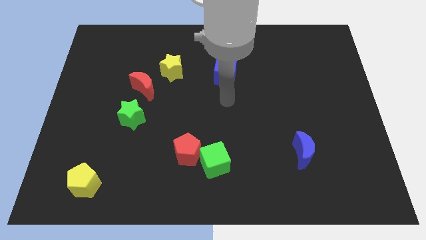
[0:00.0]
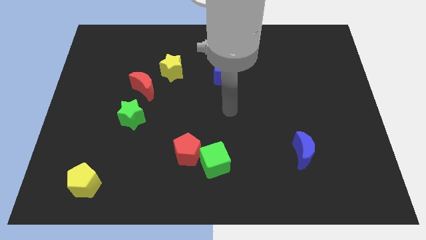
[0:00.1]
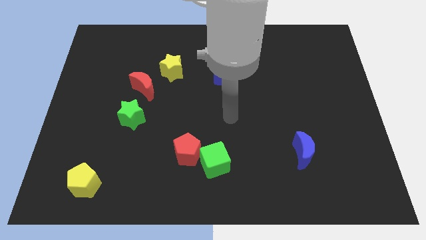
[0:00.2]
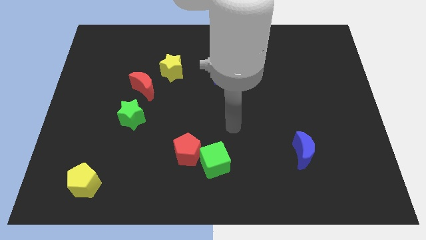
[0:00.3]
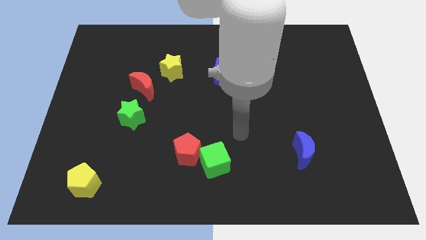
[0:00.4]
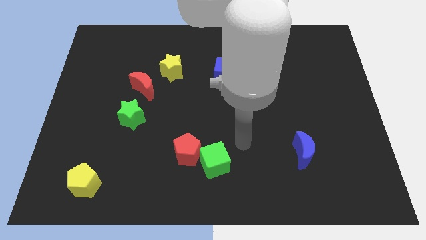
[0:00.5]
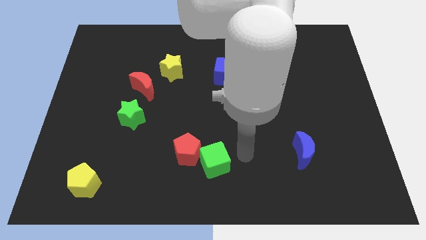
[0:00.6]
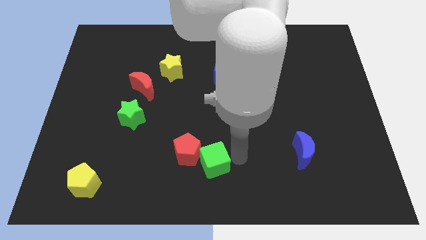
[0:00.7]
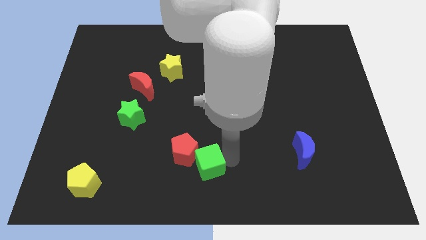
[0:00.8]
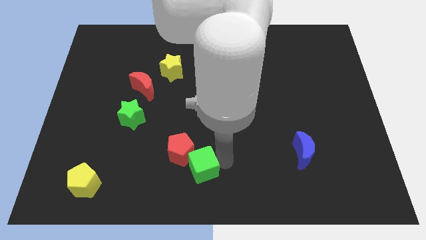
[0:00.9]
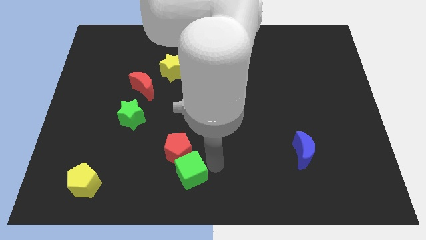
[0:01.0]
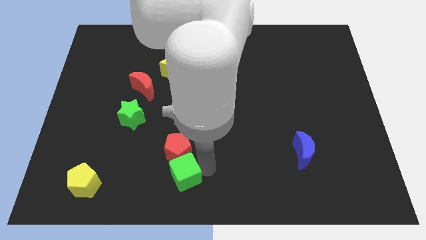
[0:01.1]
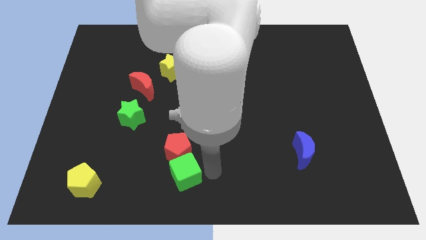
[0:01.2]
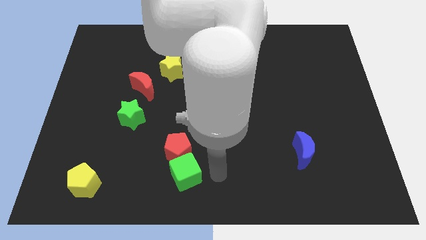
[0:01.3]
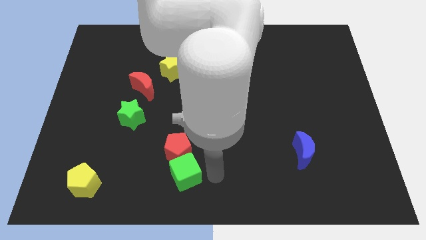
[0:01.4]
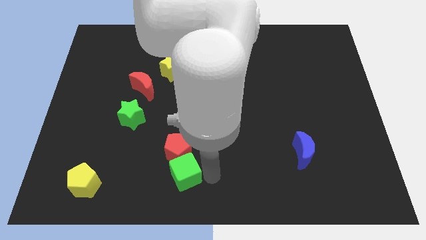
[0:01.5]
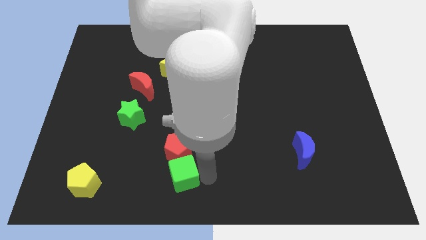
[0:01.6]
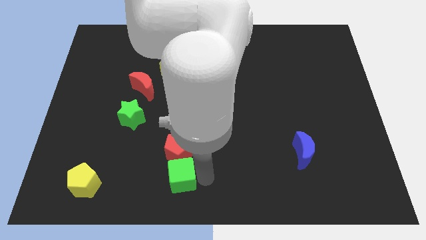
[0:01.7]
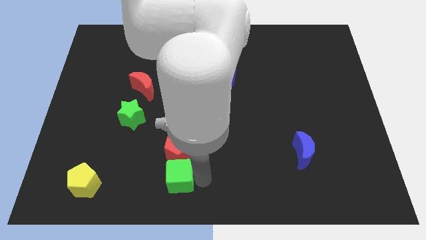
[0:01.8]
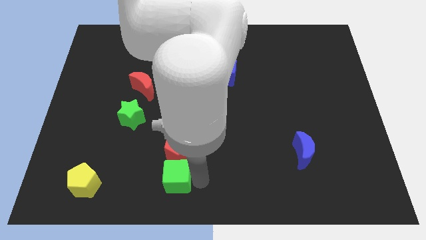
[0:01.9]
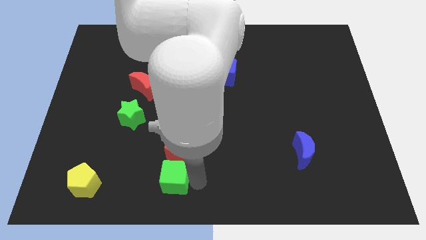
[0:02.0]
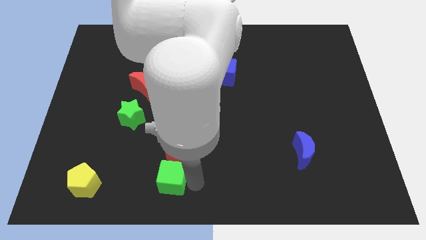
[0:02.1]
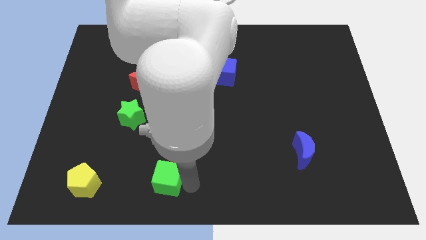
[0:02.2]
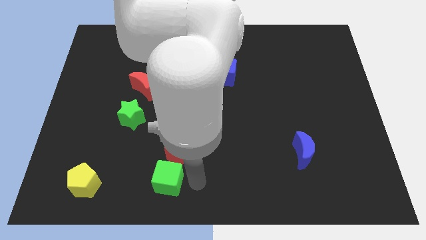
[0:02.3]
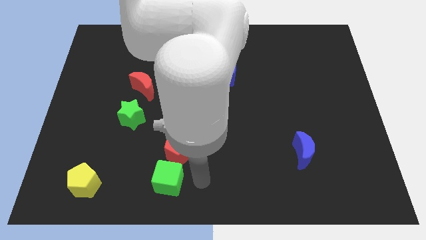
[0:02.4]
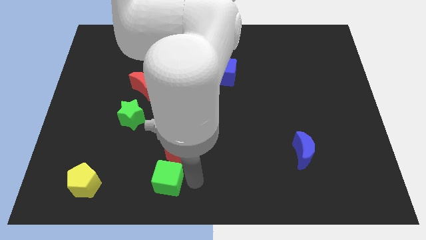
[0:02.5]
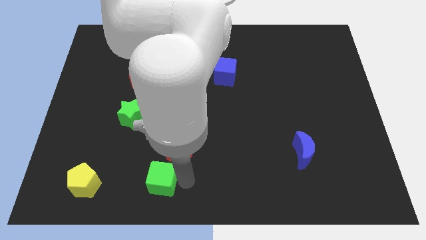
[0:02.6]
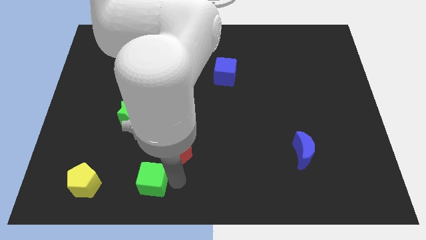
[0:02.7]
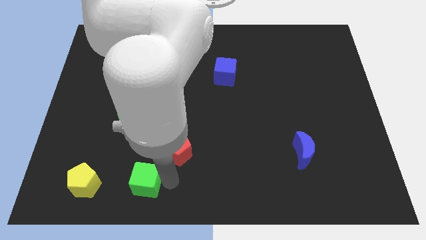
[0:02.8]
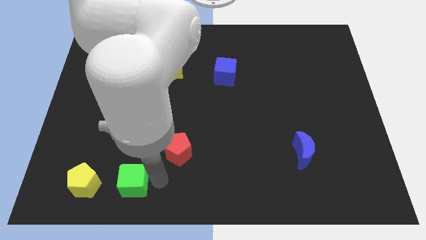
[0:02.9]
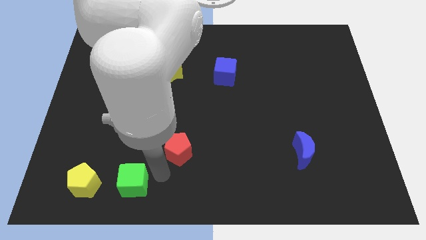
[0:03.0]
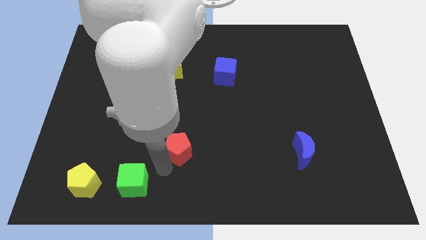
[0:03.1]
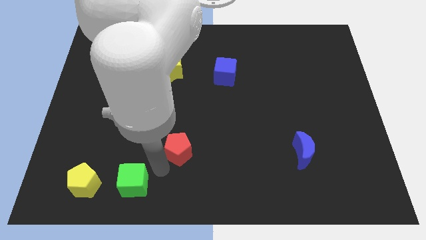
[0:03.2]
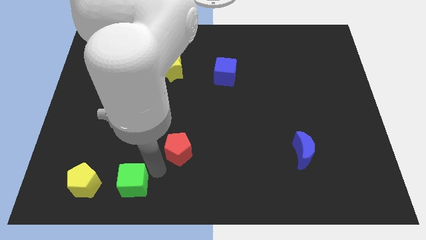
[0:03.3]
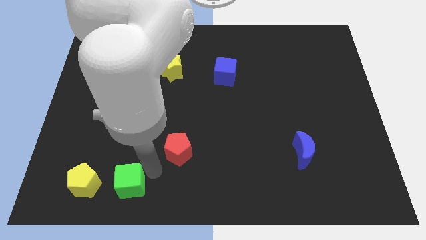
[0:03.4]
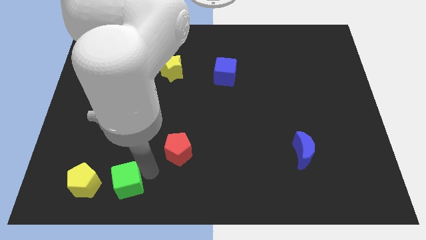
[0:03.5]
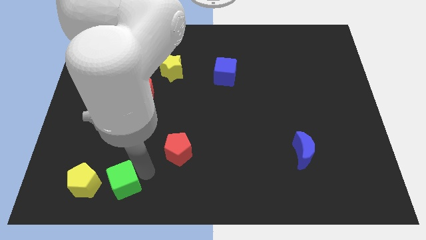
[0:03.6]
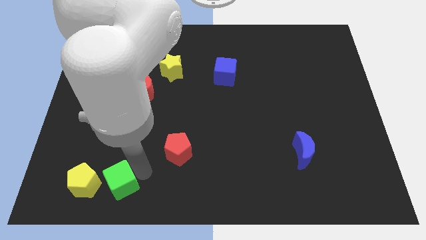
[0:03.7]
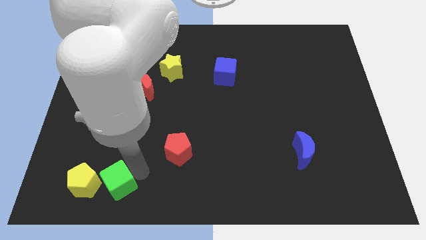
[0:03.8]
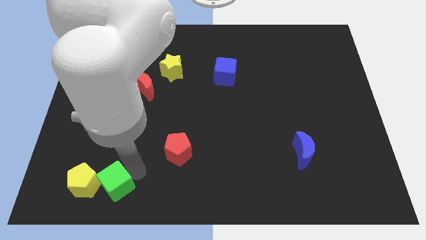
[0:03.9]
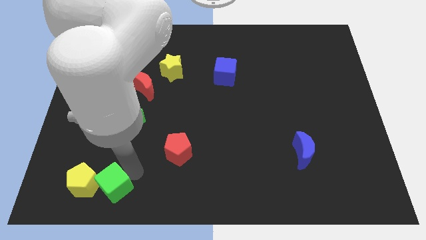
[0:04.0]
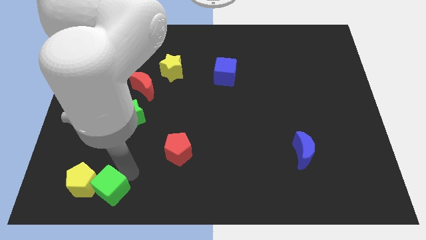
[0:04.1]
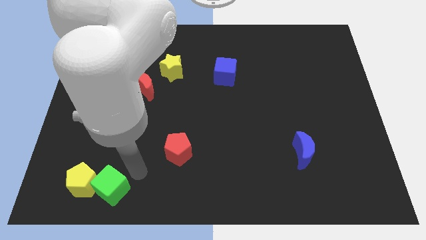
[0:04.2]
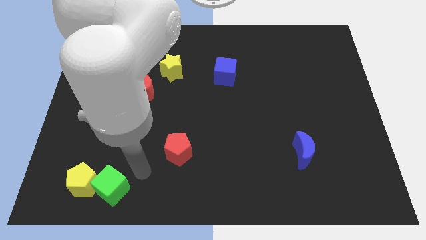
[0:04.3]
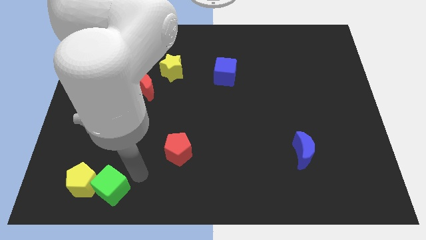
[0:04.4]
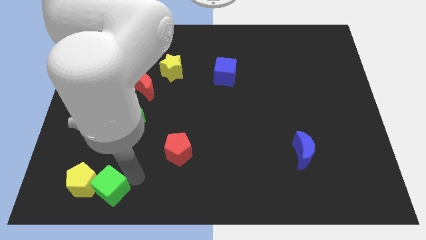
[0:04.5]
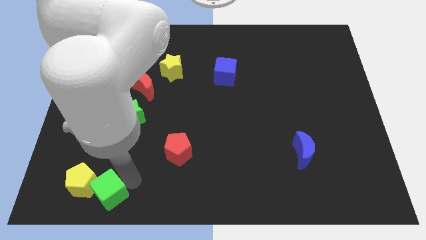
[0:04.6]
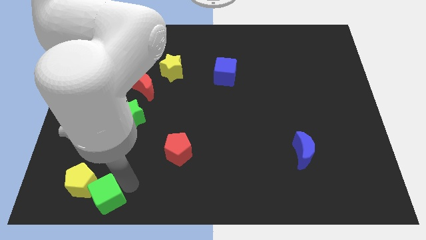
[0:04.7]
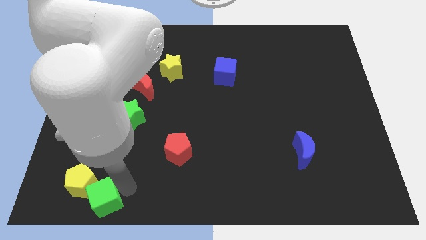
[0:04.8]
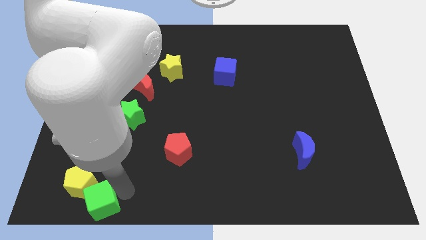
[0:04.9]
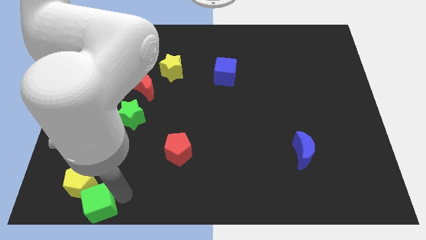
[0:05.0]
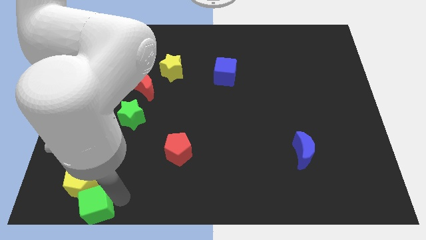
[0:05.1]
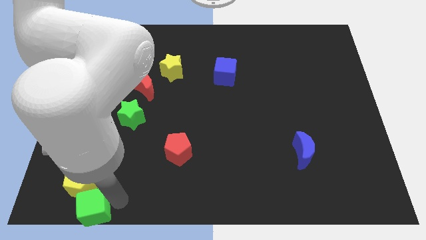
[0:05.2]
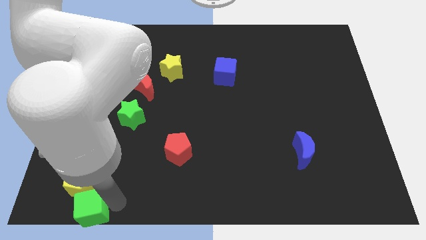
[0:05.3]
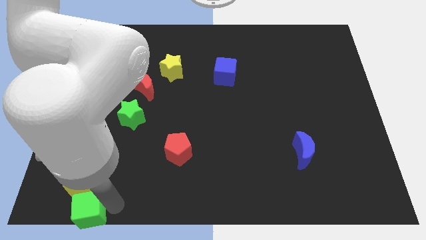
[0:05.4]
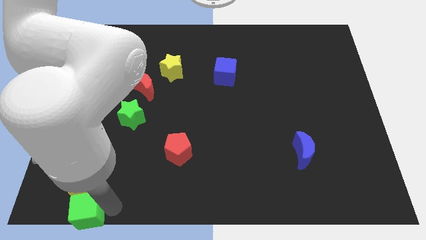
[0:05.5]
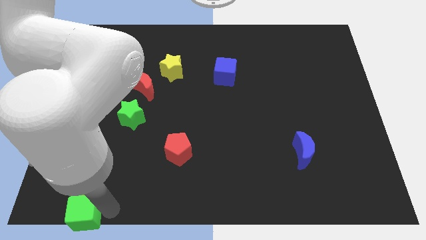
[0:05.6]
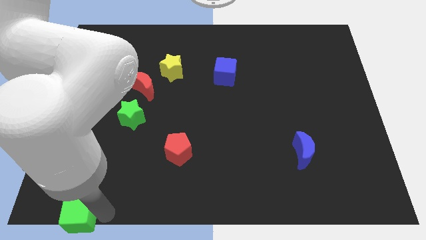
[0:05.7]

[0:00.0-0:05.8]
push the green cube to the bottom left corner
